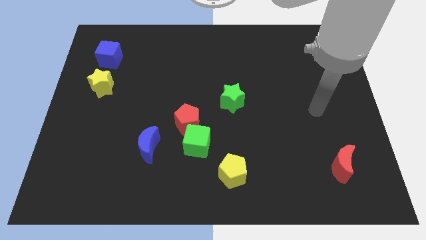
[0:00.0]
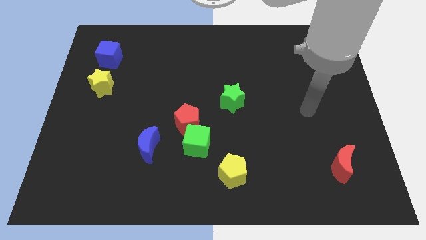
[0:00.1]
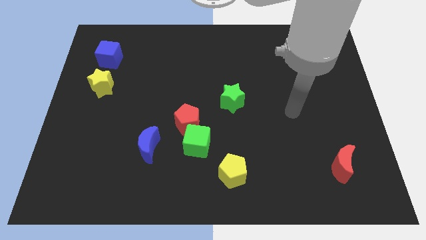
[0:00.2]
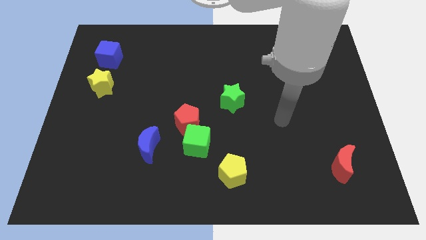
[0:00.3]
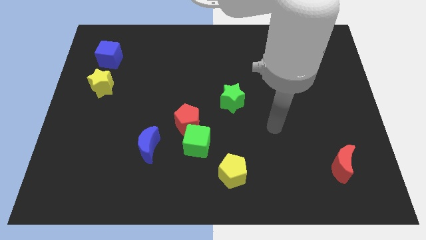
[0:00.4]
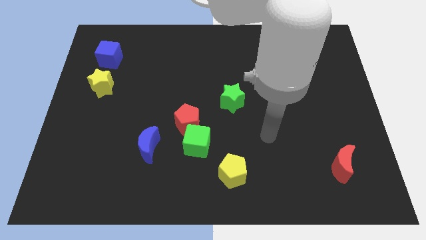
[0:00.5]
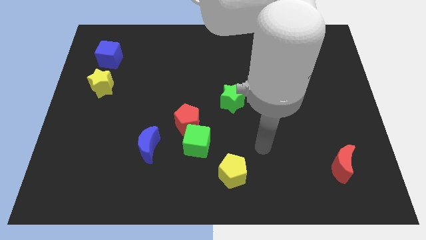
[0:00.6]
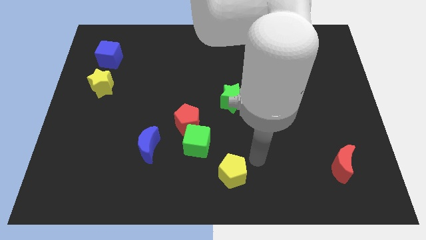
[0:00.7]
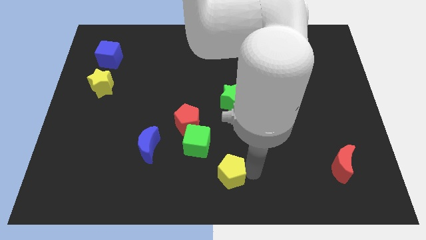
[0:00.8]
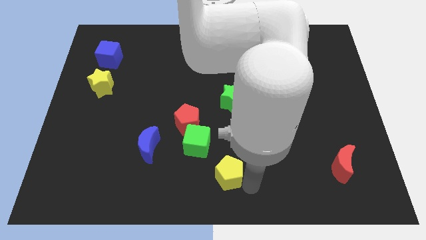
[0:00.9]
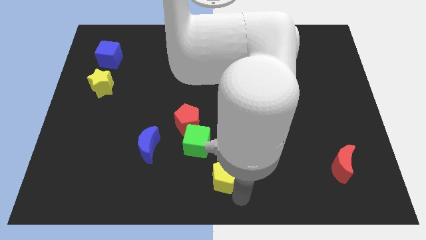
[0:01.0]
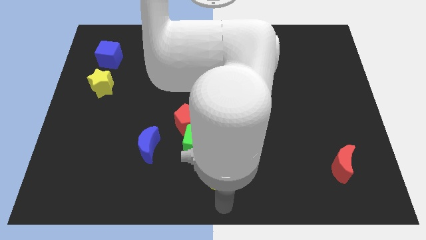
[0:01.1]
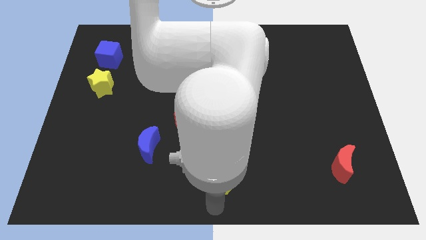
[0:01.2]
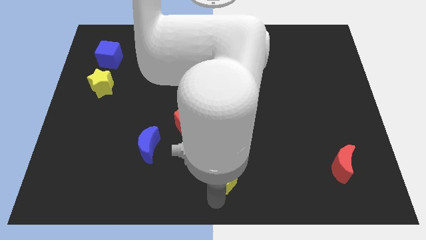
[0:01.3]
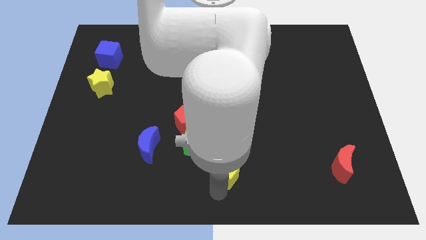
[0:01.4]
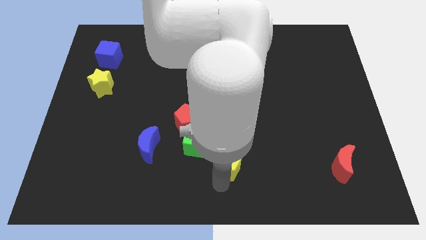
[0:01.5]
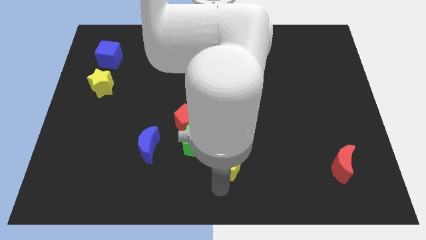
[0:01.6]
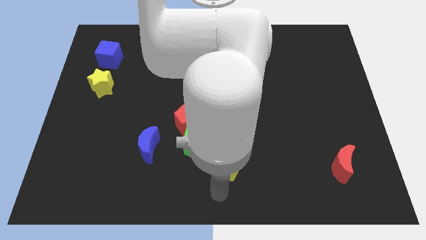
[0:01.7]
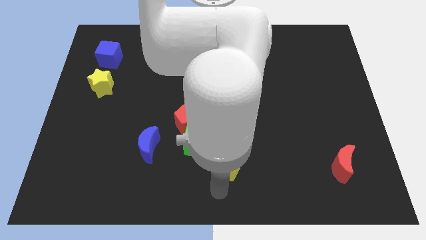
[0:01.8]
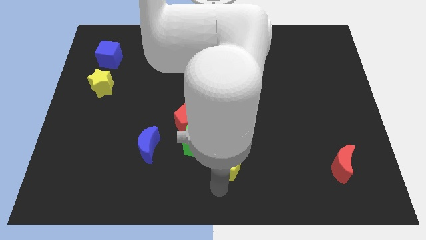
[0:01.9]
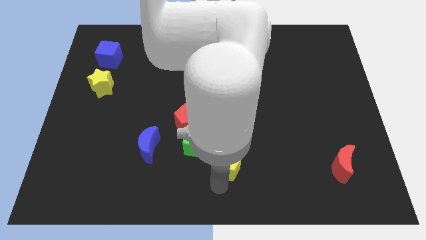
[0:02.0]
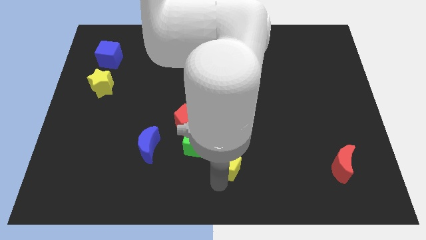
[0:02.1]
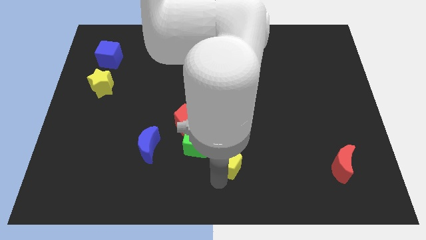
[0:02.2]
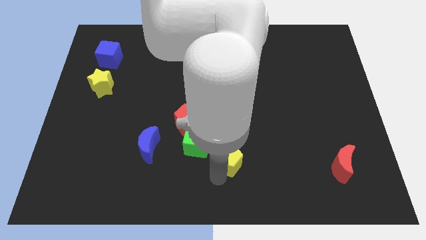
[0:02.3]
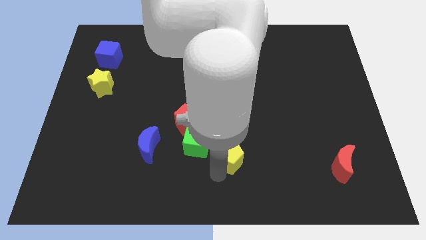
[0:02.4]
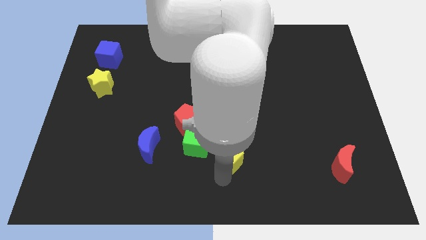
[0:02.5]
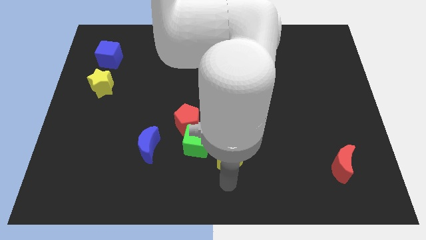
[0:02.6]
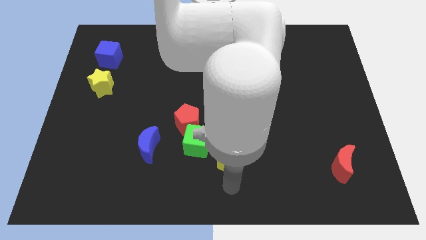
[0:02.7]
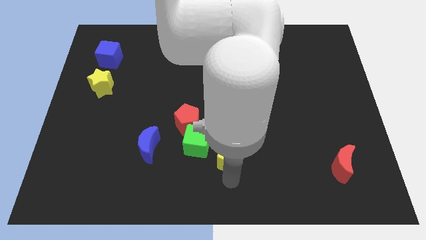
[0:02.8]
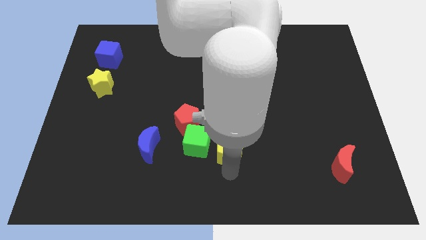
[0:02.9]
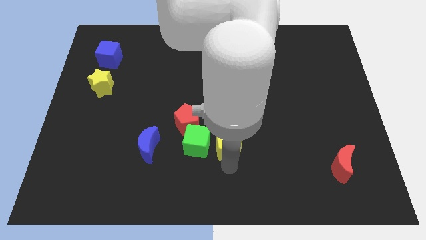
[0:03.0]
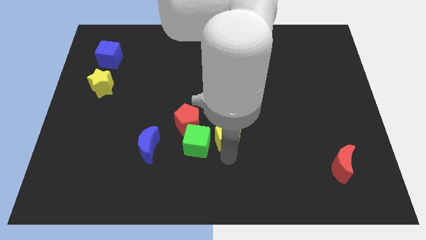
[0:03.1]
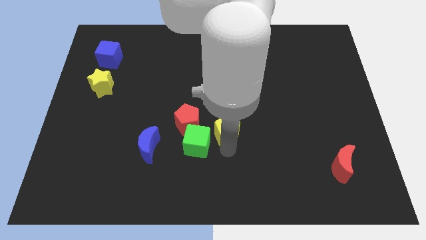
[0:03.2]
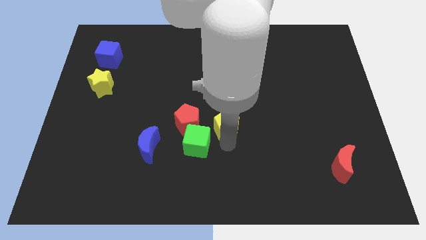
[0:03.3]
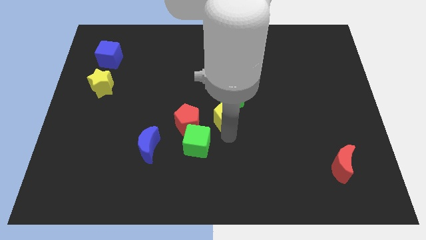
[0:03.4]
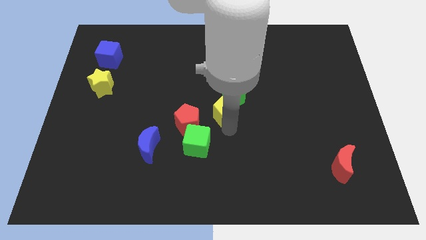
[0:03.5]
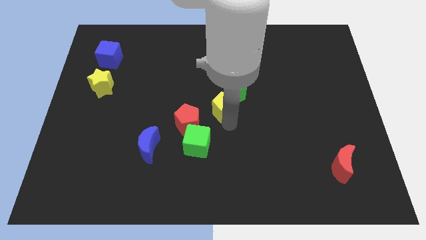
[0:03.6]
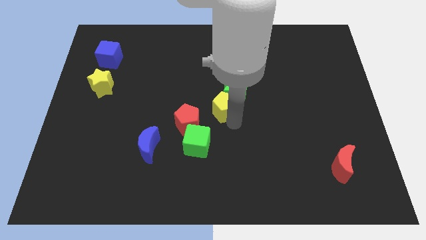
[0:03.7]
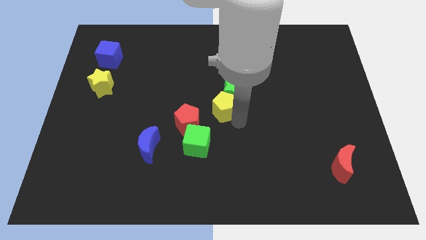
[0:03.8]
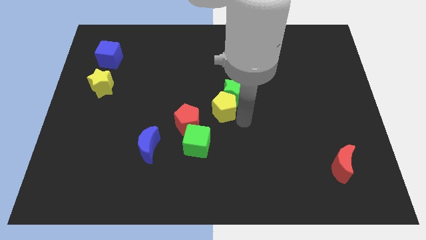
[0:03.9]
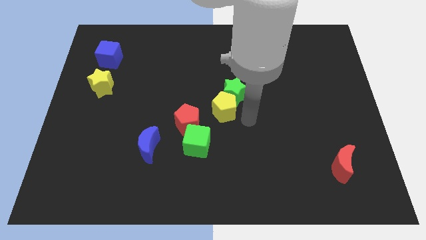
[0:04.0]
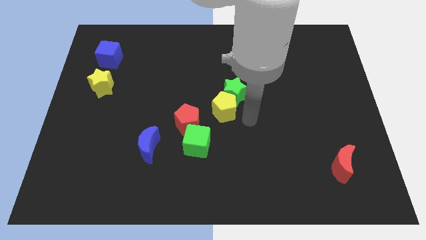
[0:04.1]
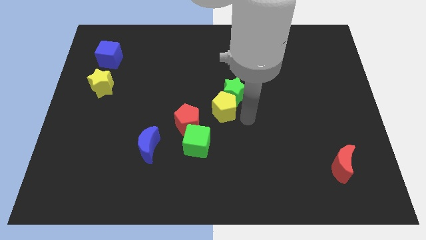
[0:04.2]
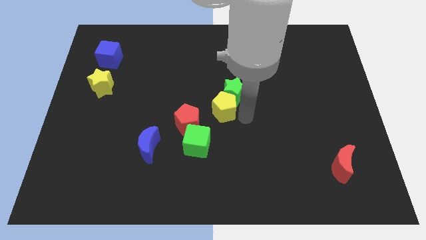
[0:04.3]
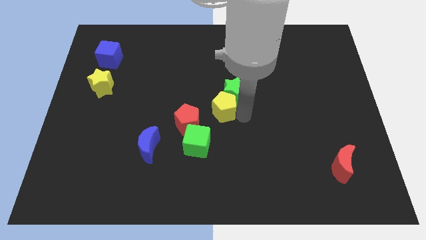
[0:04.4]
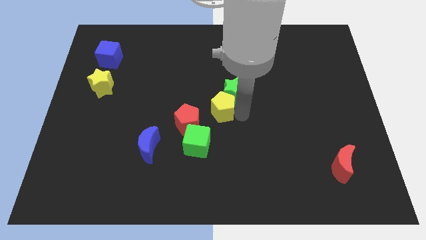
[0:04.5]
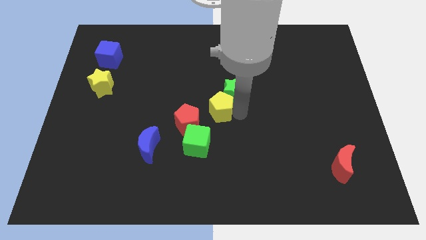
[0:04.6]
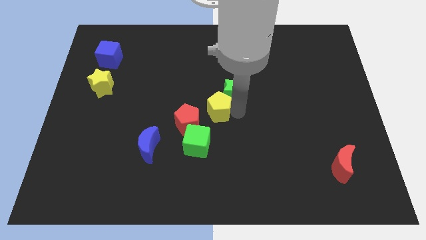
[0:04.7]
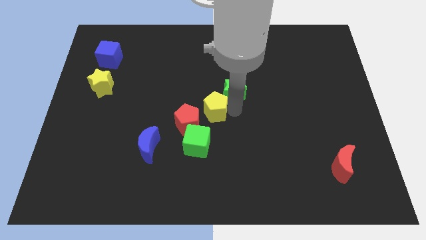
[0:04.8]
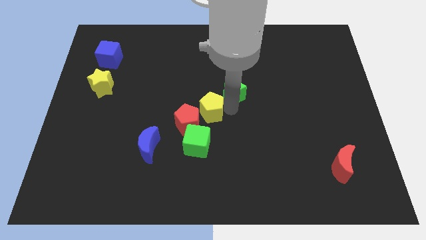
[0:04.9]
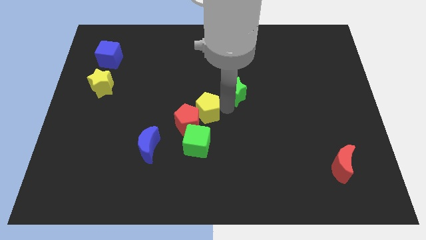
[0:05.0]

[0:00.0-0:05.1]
move the yellow pentagon to the top side of the red pentagon

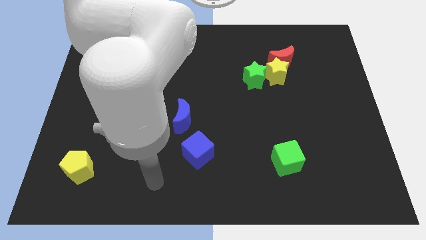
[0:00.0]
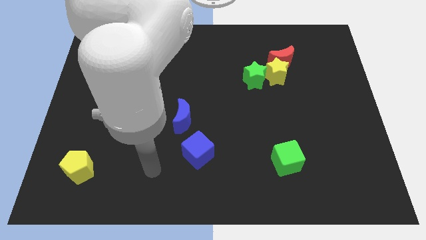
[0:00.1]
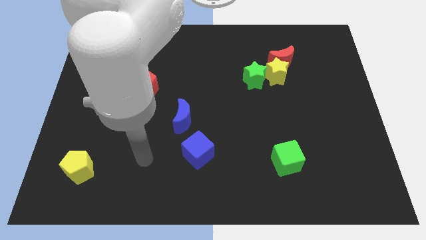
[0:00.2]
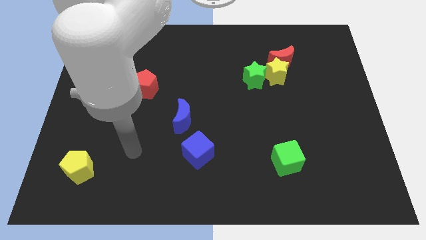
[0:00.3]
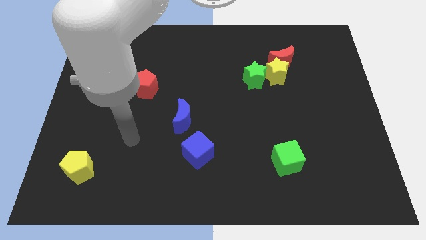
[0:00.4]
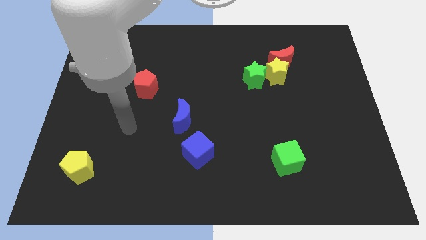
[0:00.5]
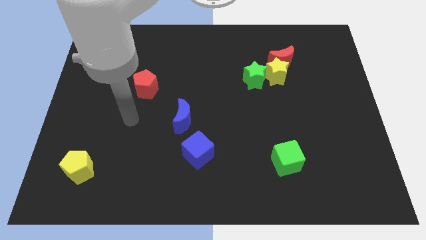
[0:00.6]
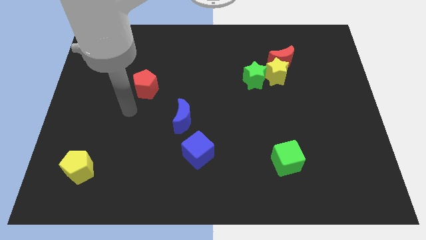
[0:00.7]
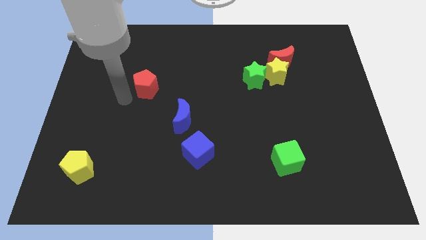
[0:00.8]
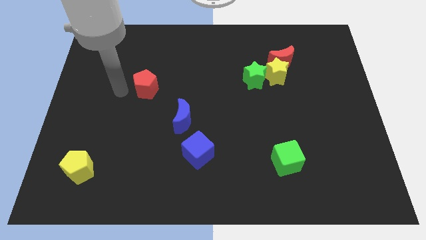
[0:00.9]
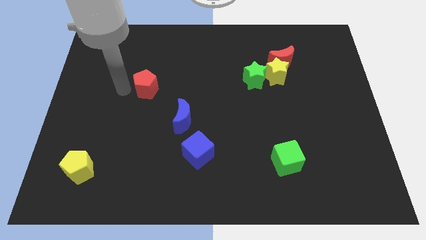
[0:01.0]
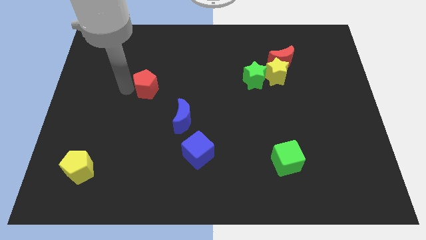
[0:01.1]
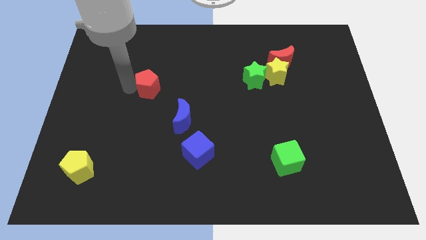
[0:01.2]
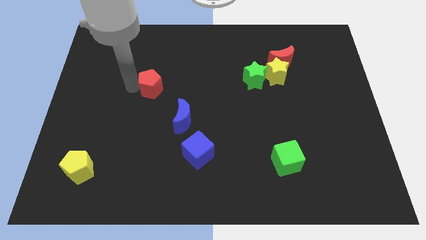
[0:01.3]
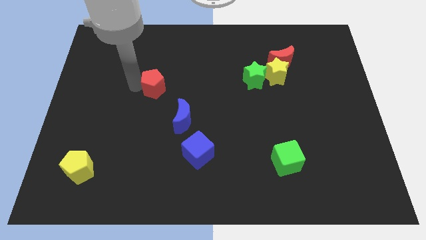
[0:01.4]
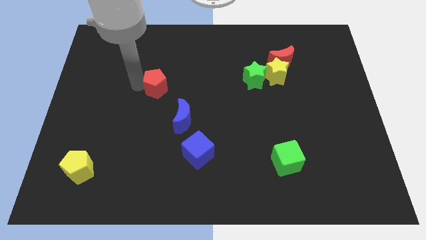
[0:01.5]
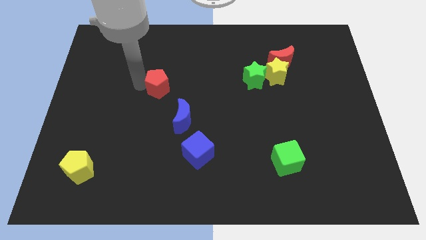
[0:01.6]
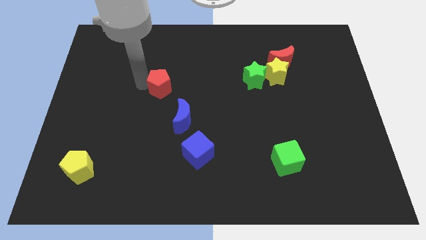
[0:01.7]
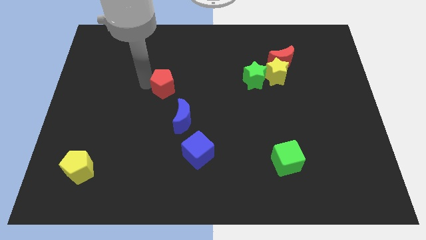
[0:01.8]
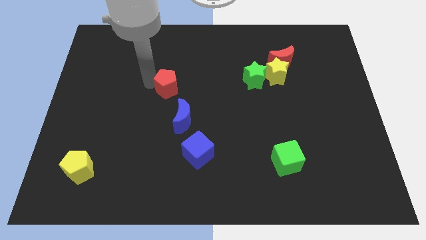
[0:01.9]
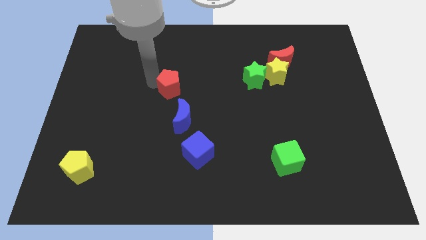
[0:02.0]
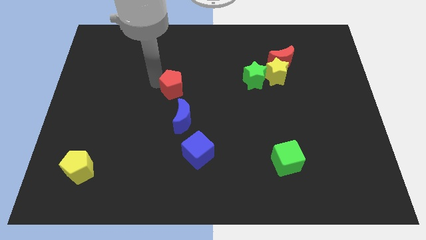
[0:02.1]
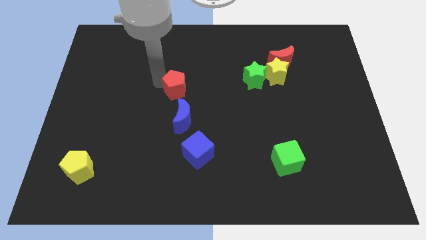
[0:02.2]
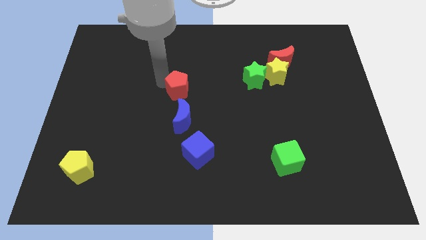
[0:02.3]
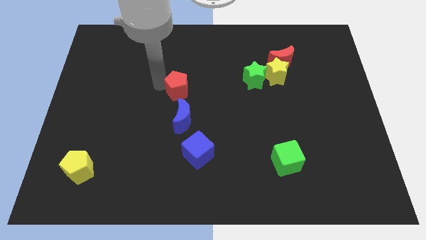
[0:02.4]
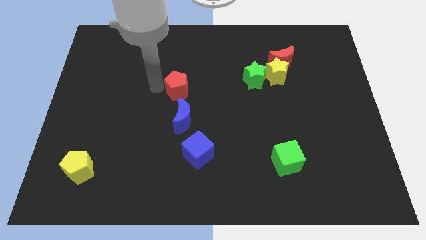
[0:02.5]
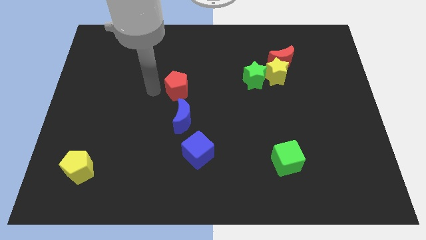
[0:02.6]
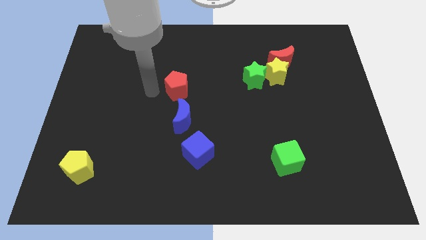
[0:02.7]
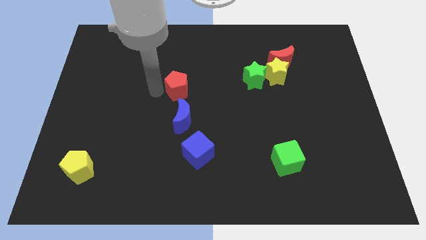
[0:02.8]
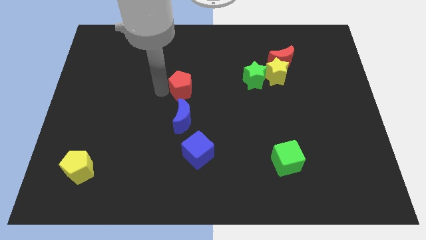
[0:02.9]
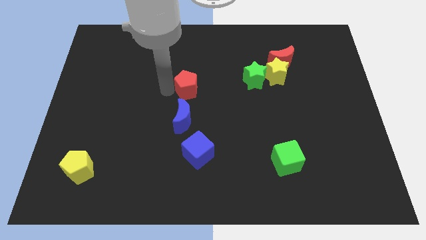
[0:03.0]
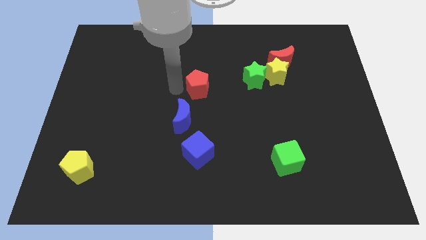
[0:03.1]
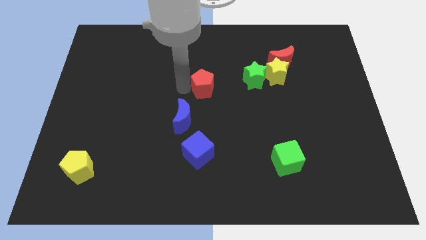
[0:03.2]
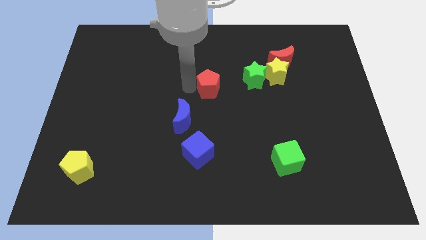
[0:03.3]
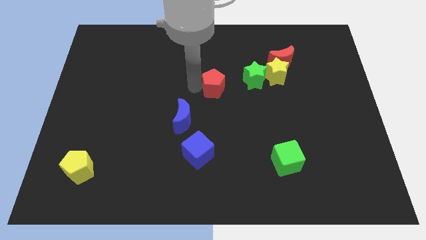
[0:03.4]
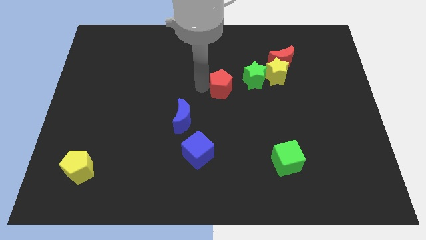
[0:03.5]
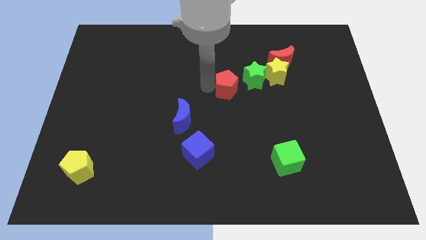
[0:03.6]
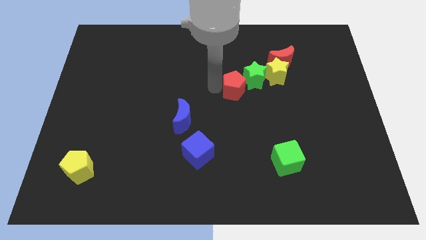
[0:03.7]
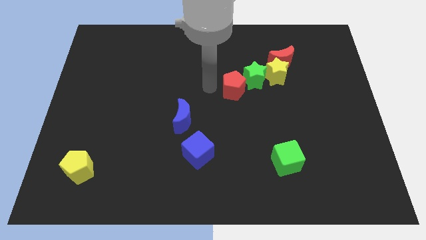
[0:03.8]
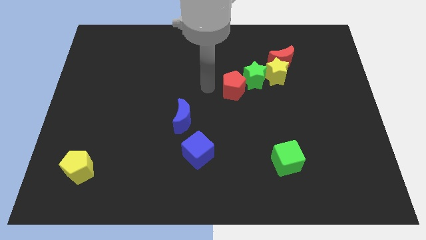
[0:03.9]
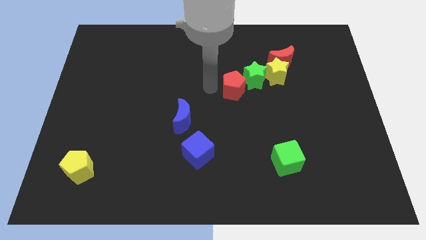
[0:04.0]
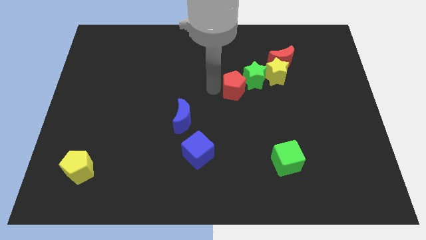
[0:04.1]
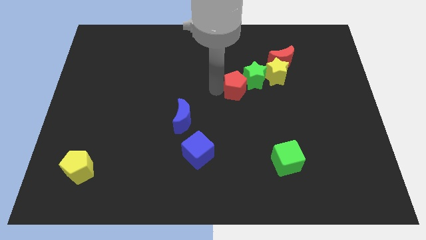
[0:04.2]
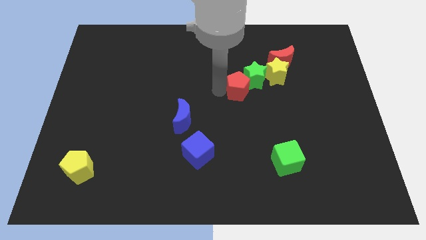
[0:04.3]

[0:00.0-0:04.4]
push the red pentagon to the bottom left of the yellow star
